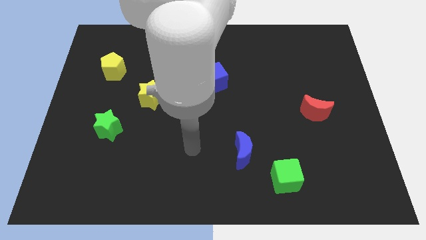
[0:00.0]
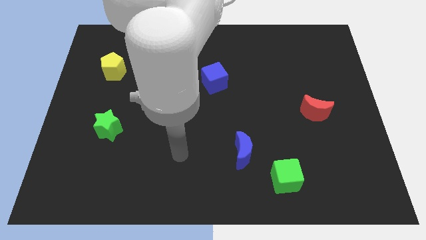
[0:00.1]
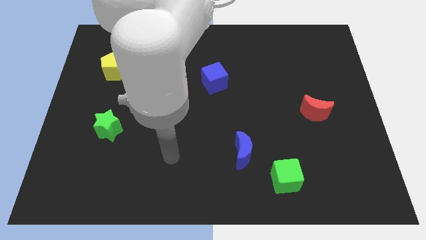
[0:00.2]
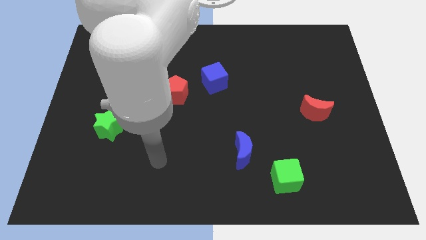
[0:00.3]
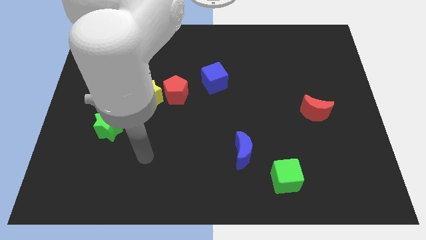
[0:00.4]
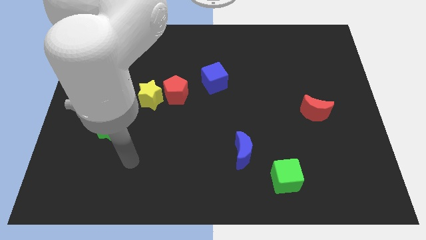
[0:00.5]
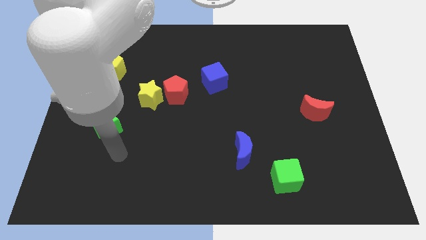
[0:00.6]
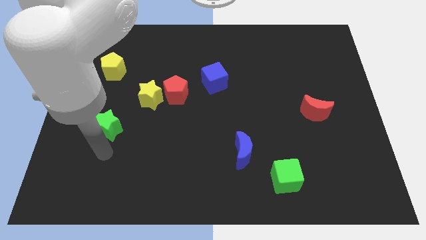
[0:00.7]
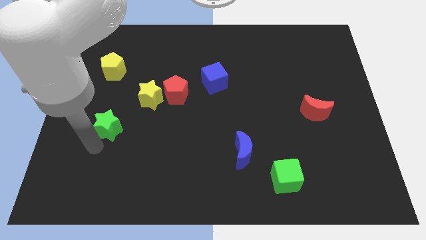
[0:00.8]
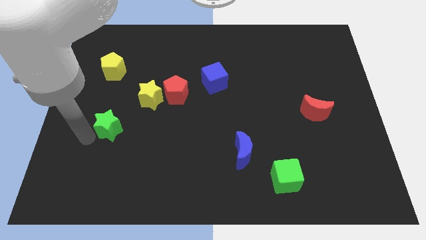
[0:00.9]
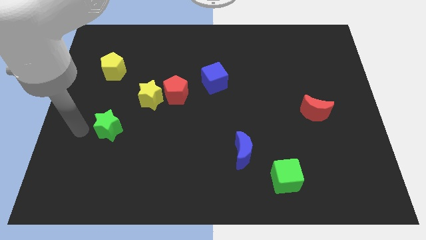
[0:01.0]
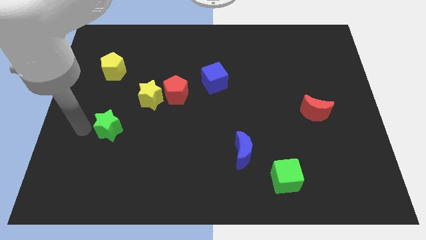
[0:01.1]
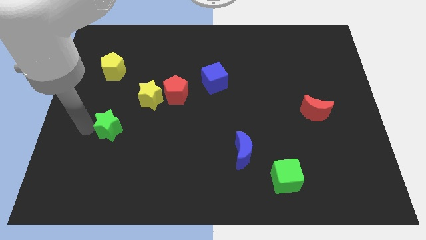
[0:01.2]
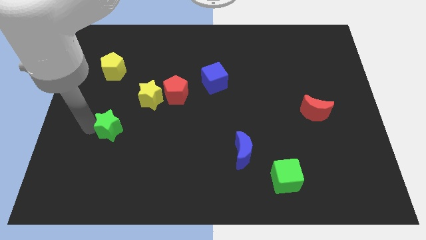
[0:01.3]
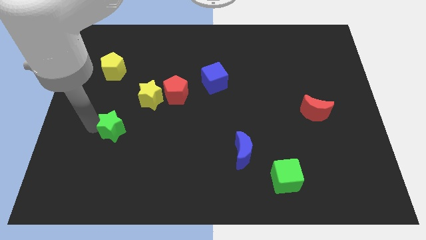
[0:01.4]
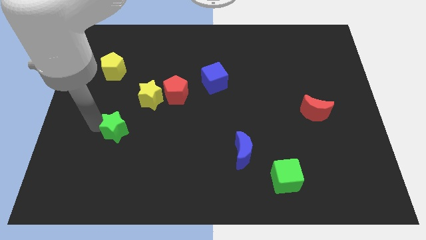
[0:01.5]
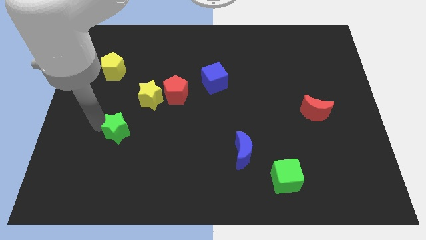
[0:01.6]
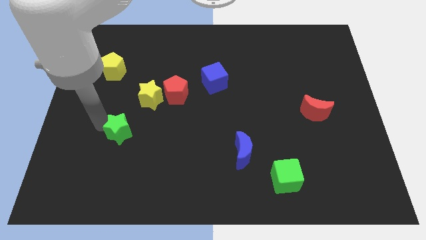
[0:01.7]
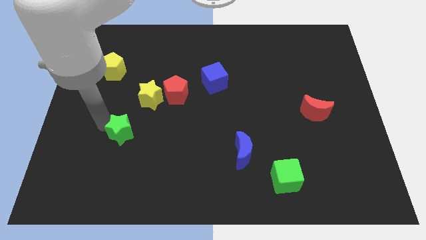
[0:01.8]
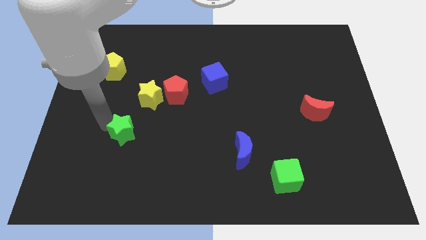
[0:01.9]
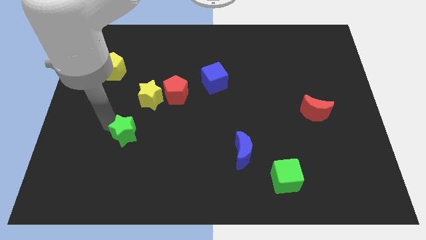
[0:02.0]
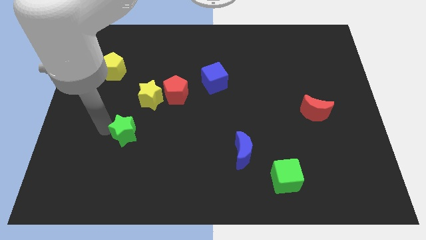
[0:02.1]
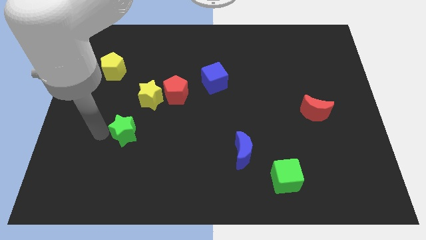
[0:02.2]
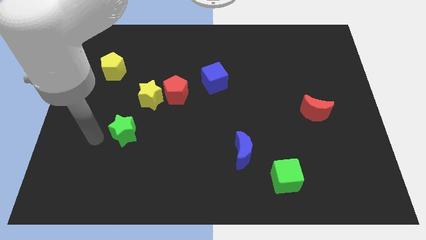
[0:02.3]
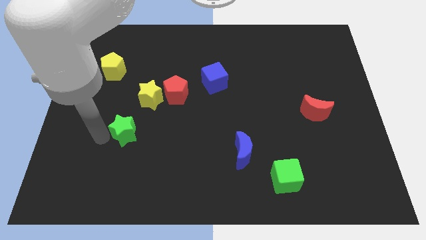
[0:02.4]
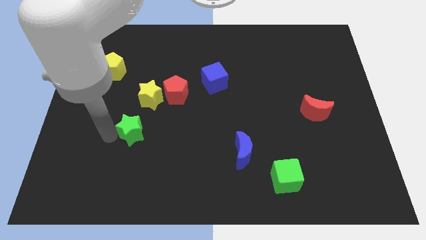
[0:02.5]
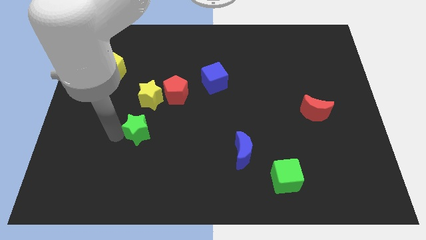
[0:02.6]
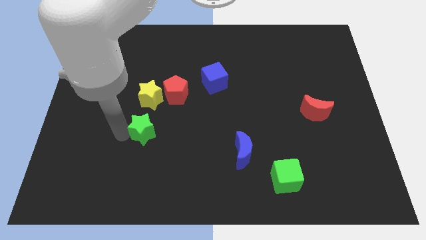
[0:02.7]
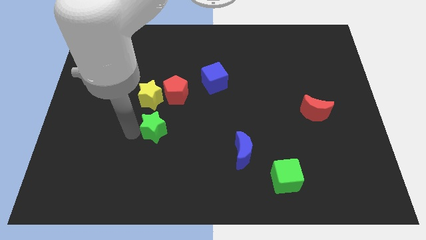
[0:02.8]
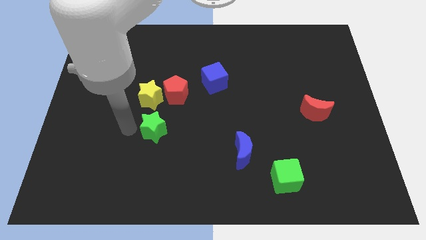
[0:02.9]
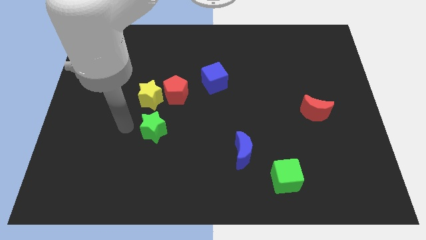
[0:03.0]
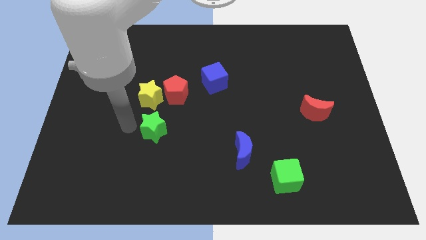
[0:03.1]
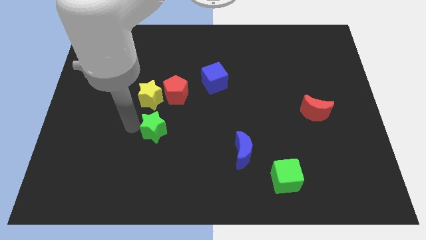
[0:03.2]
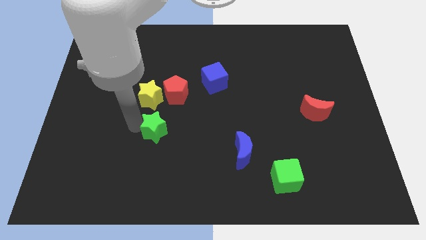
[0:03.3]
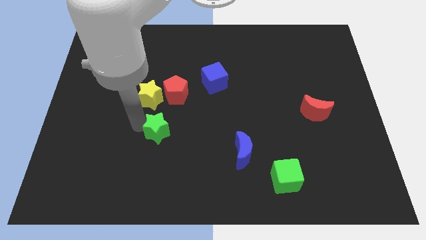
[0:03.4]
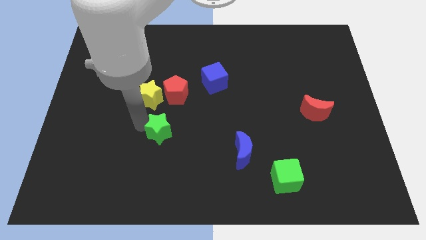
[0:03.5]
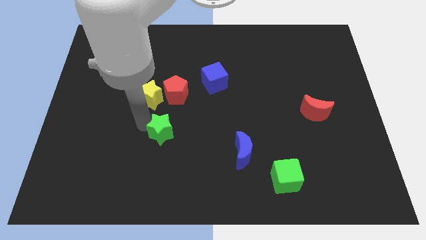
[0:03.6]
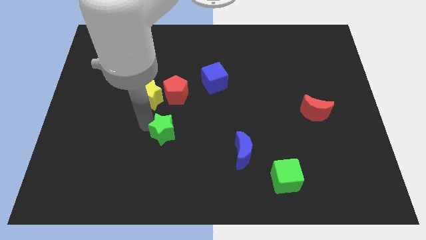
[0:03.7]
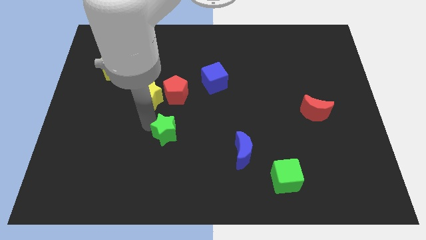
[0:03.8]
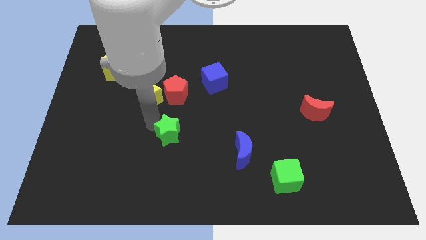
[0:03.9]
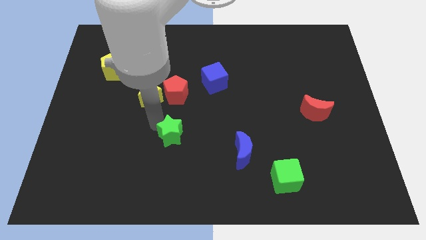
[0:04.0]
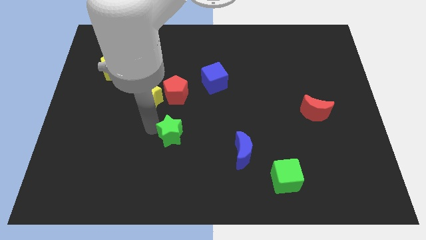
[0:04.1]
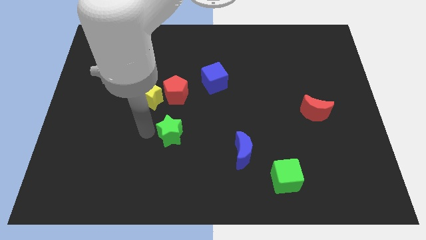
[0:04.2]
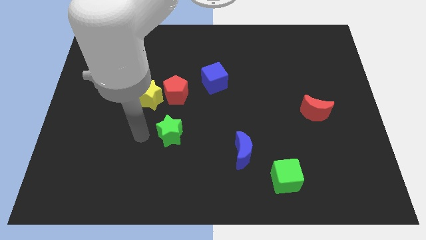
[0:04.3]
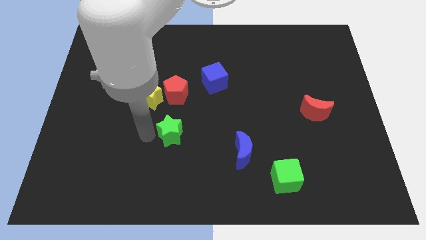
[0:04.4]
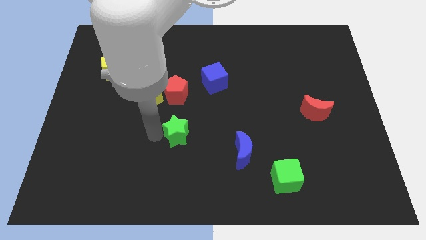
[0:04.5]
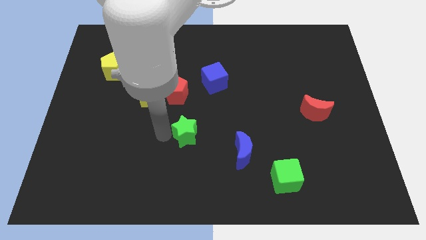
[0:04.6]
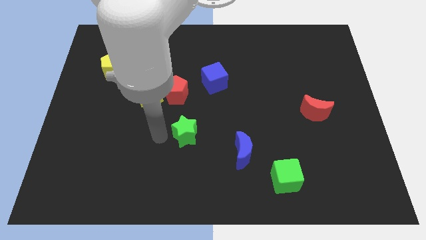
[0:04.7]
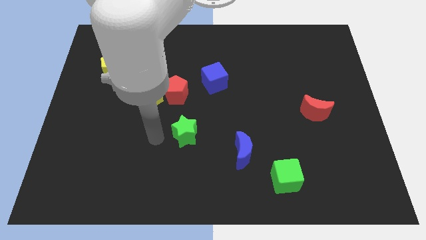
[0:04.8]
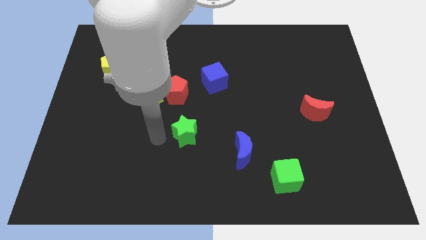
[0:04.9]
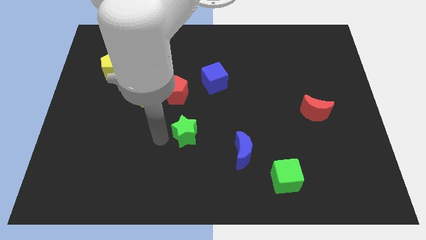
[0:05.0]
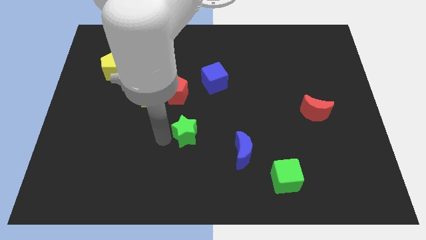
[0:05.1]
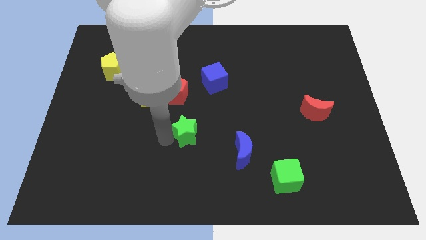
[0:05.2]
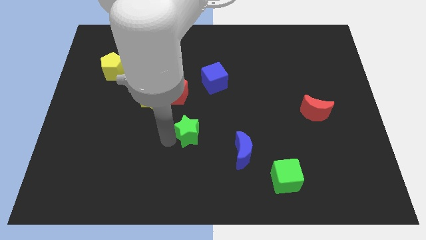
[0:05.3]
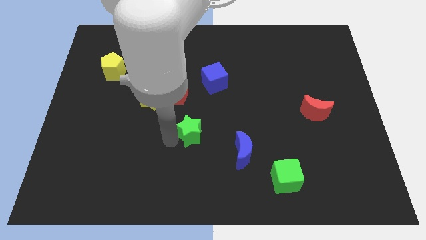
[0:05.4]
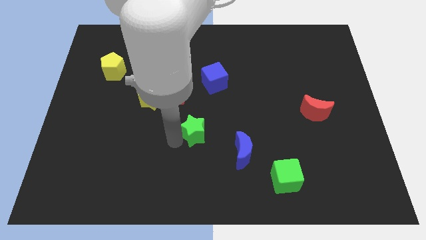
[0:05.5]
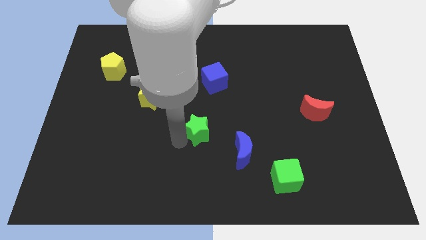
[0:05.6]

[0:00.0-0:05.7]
slide the green star to the right

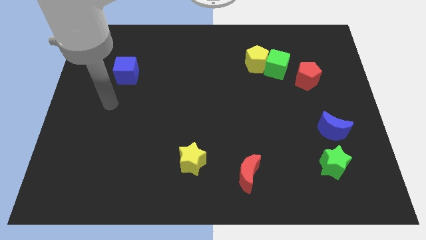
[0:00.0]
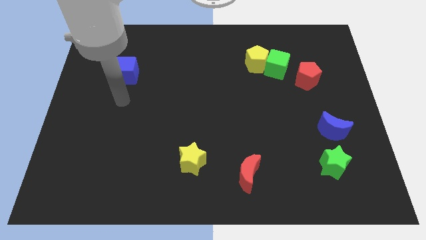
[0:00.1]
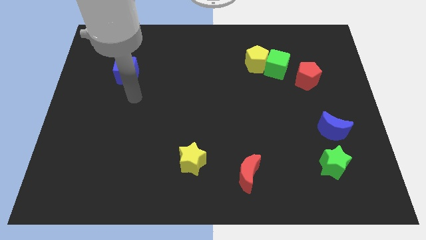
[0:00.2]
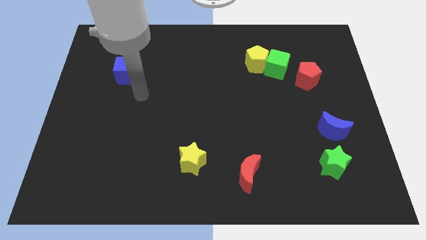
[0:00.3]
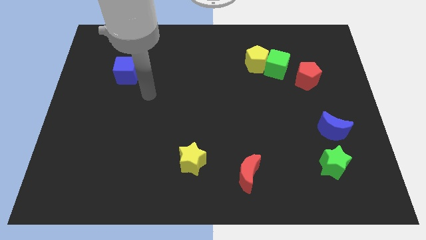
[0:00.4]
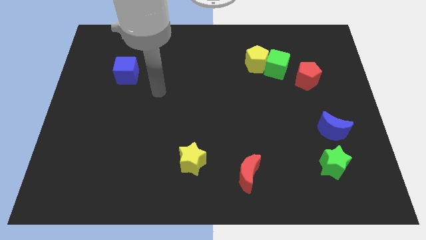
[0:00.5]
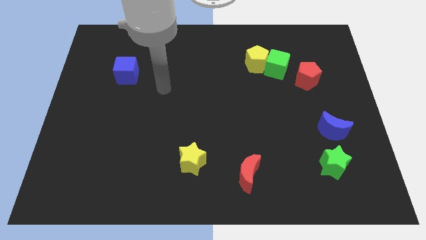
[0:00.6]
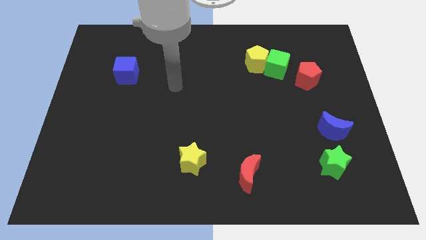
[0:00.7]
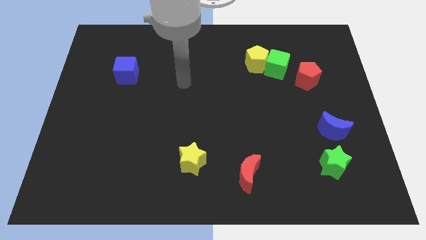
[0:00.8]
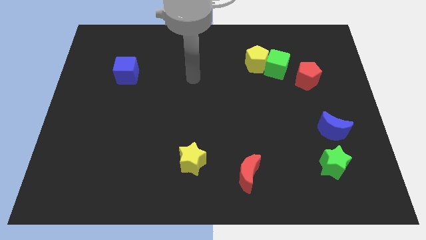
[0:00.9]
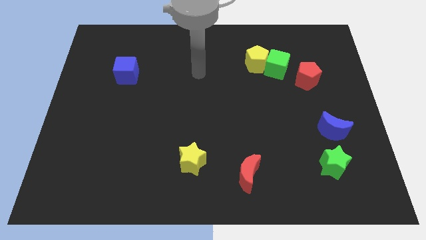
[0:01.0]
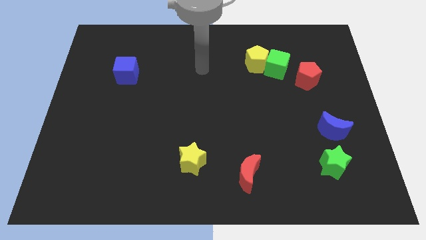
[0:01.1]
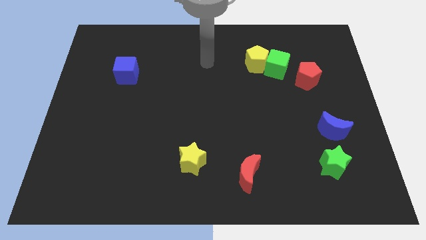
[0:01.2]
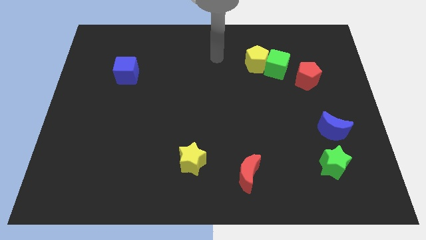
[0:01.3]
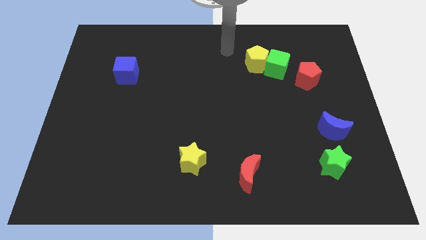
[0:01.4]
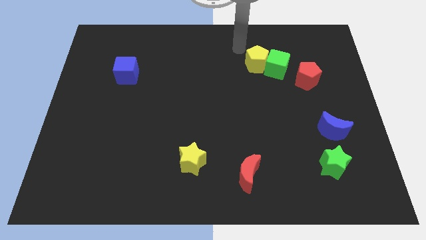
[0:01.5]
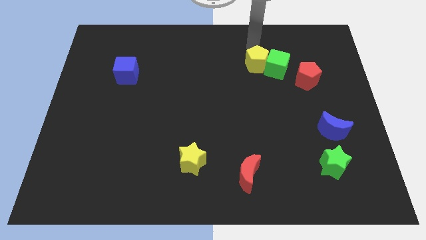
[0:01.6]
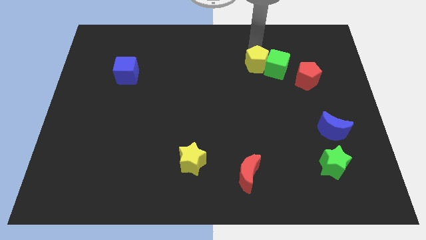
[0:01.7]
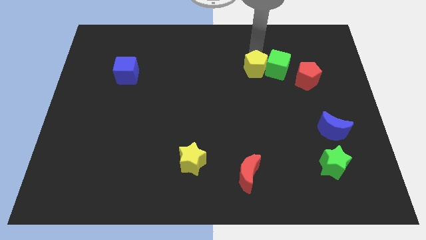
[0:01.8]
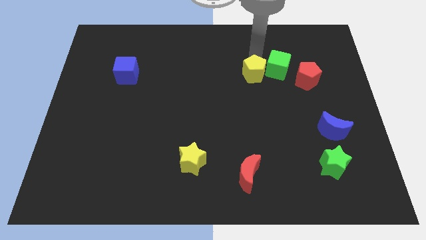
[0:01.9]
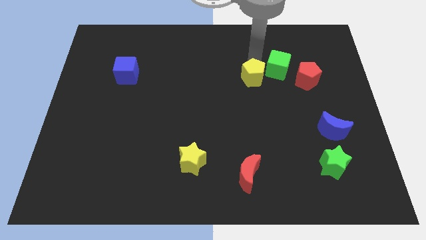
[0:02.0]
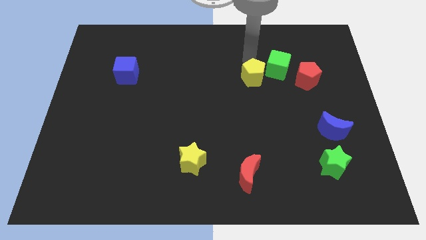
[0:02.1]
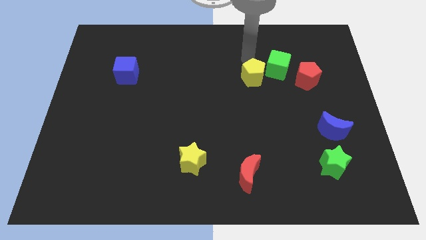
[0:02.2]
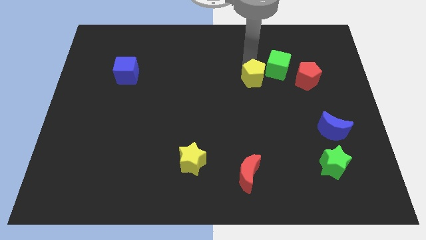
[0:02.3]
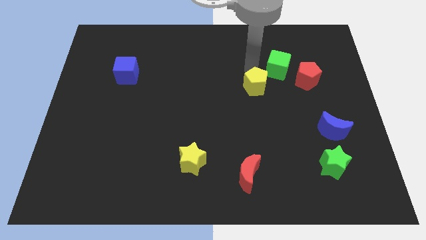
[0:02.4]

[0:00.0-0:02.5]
move the yellow pentagon a bit down

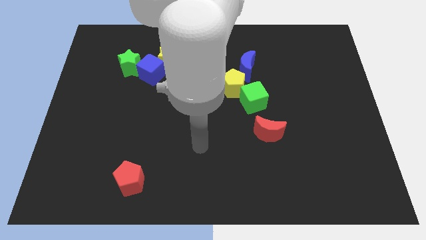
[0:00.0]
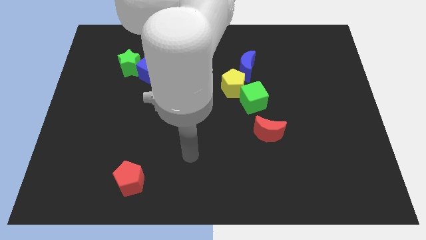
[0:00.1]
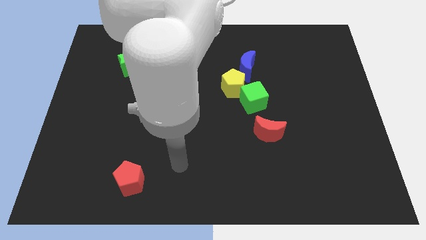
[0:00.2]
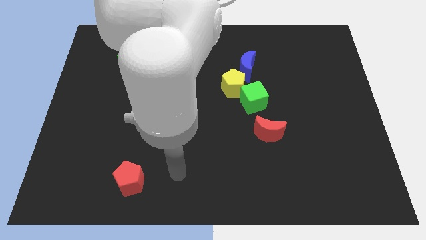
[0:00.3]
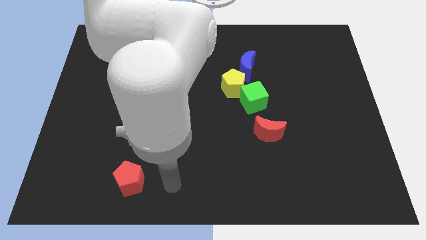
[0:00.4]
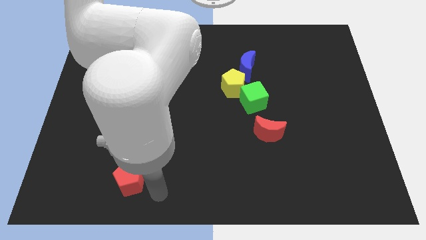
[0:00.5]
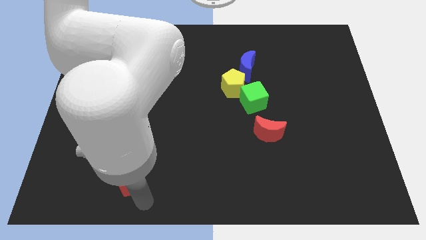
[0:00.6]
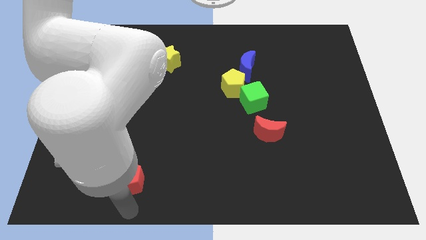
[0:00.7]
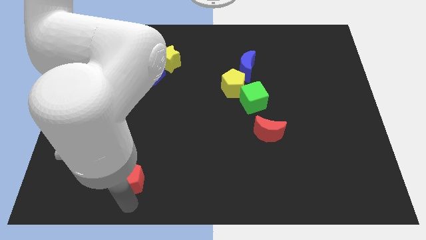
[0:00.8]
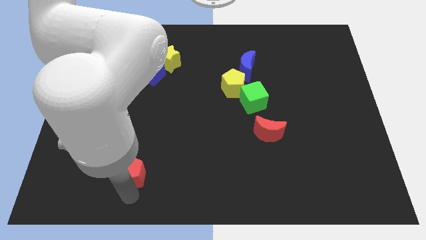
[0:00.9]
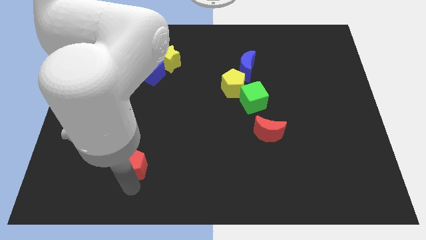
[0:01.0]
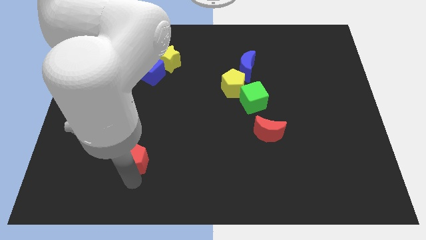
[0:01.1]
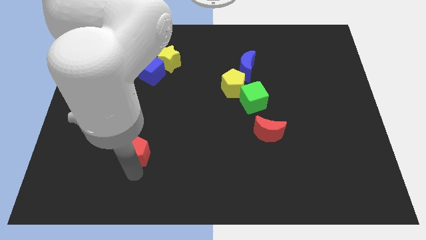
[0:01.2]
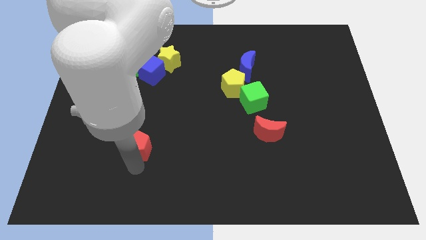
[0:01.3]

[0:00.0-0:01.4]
slightly push the red pentagon up
